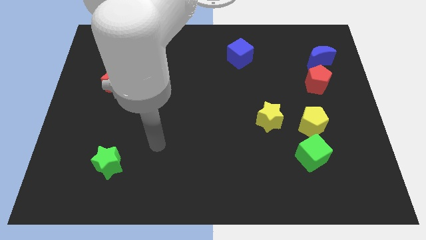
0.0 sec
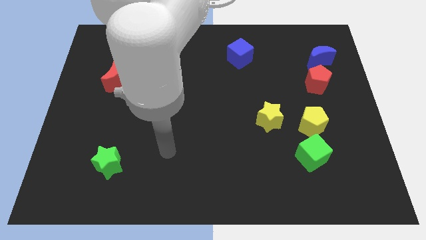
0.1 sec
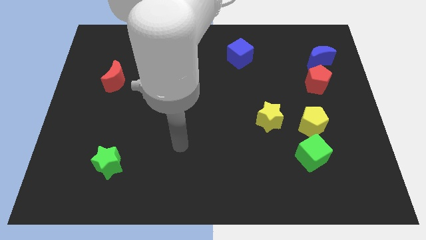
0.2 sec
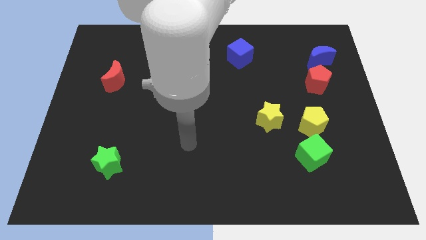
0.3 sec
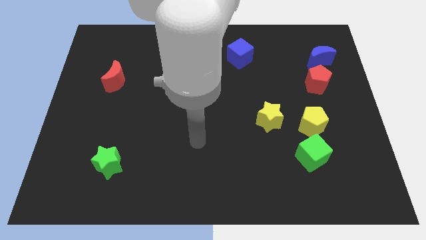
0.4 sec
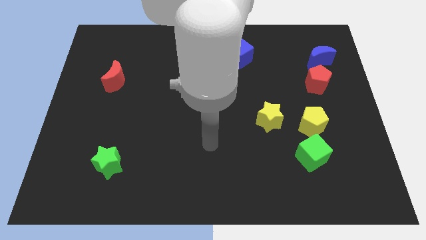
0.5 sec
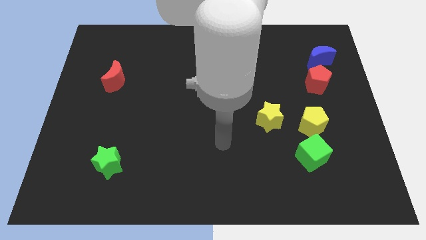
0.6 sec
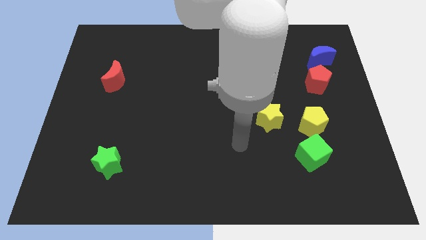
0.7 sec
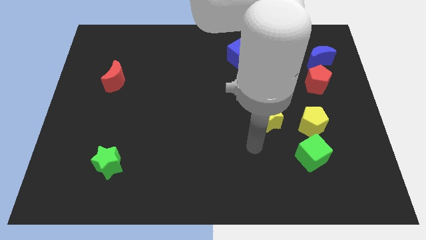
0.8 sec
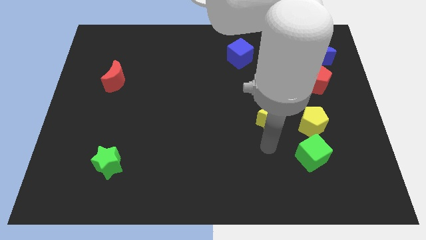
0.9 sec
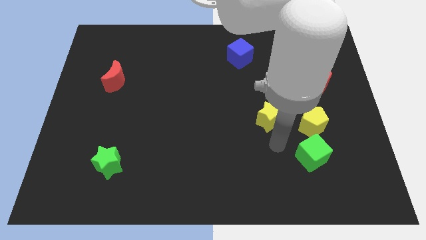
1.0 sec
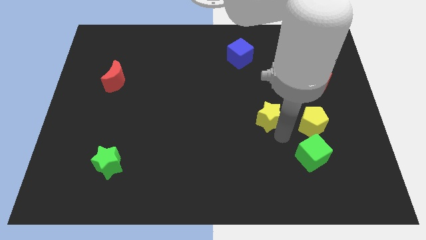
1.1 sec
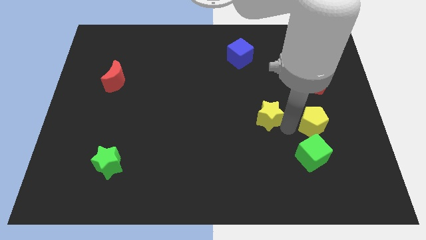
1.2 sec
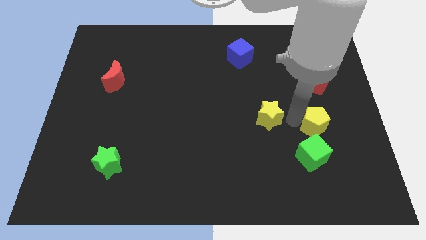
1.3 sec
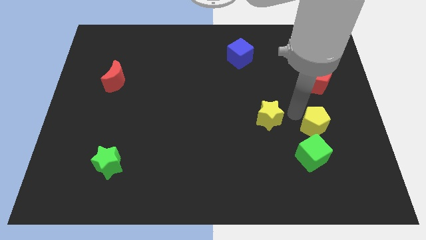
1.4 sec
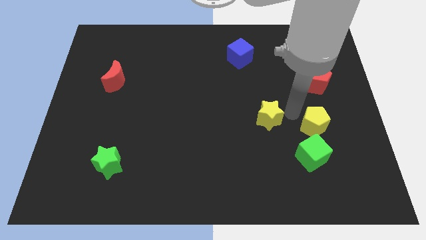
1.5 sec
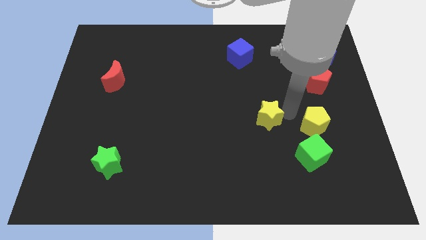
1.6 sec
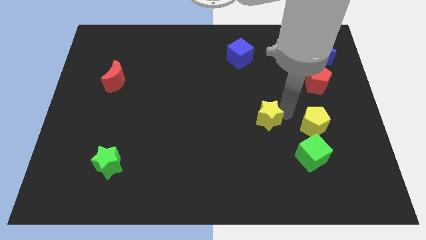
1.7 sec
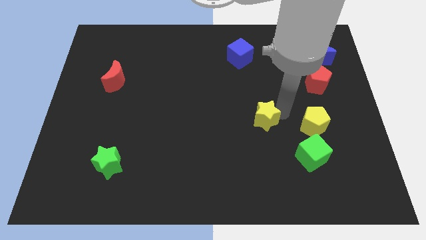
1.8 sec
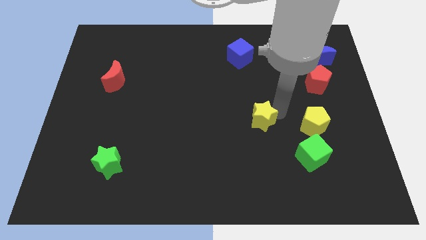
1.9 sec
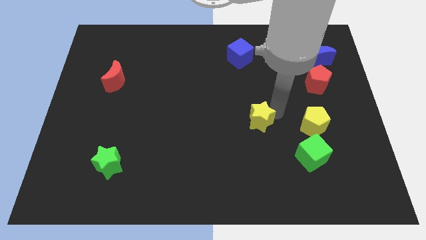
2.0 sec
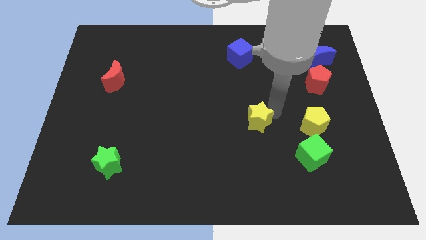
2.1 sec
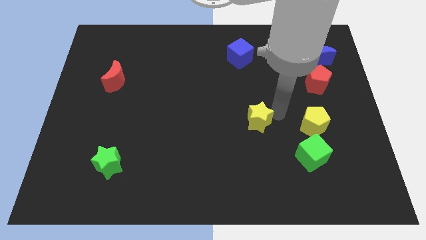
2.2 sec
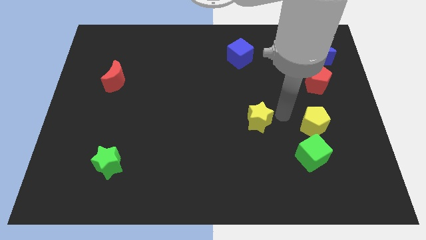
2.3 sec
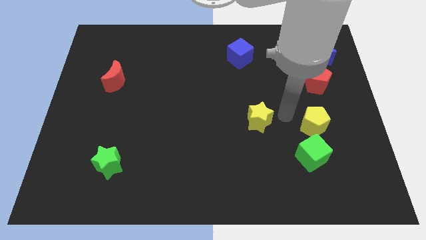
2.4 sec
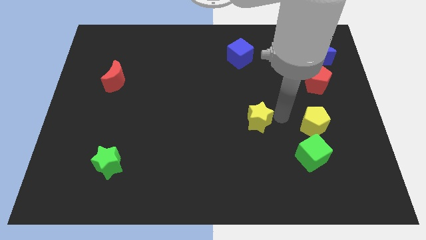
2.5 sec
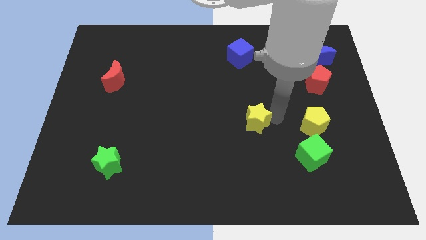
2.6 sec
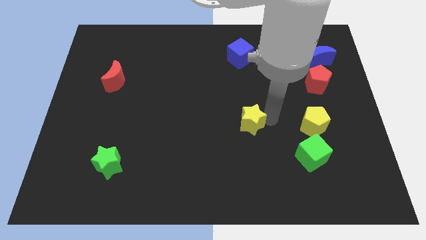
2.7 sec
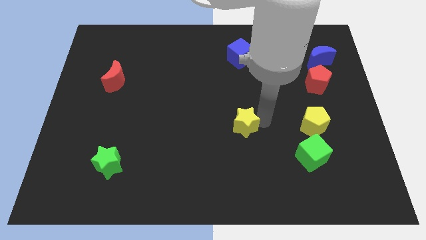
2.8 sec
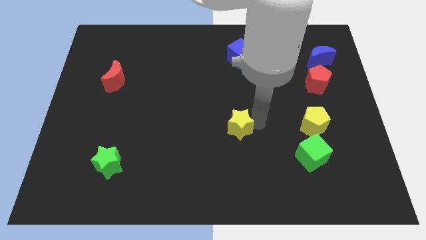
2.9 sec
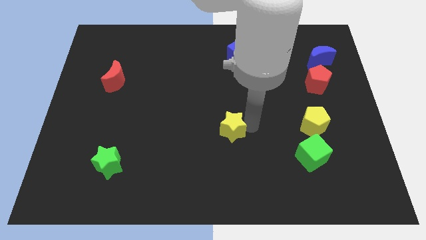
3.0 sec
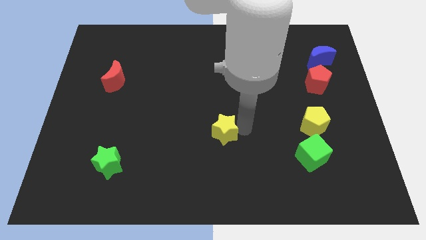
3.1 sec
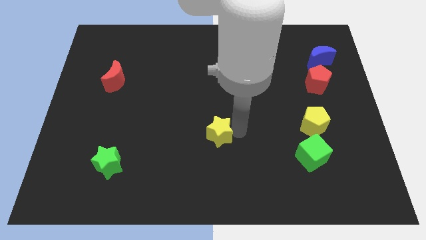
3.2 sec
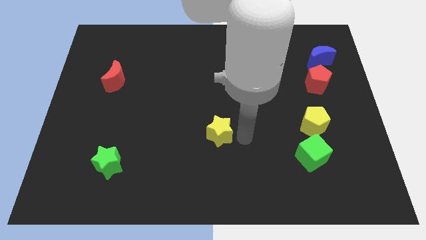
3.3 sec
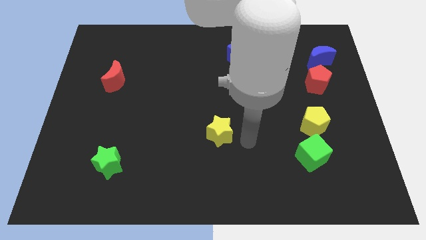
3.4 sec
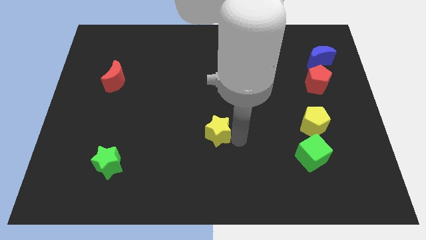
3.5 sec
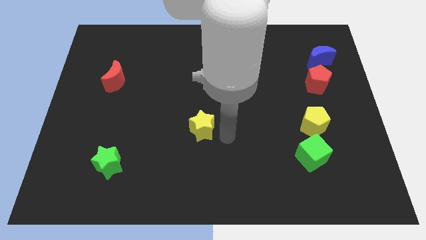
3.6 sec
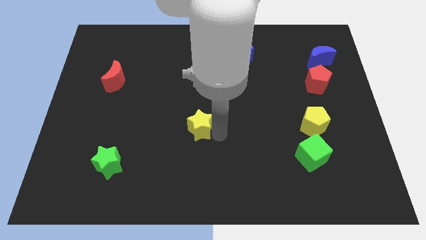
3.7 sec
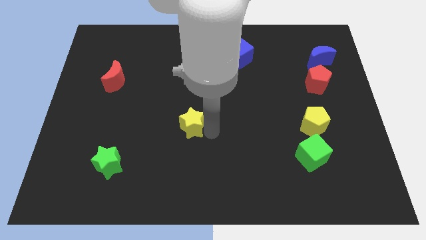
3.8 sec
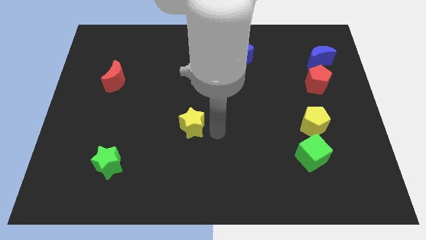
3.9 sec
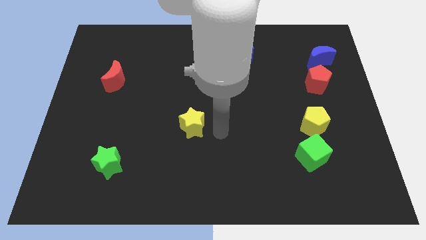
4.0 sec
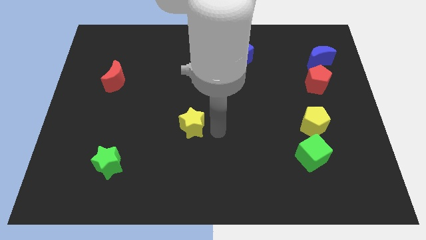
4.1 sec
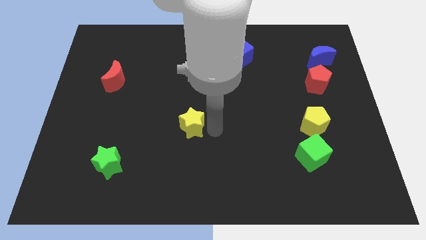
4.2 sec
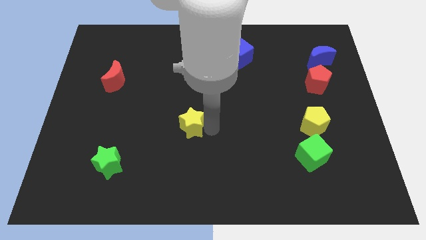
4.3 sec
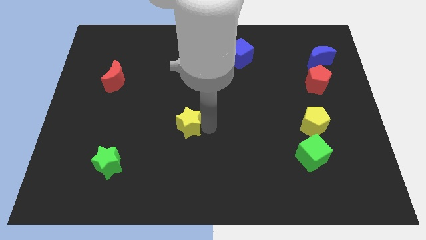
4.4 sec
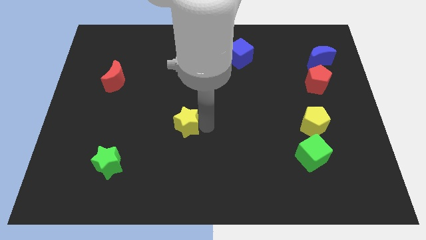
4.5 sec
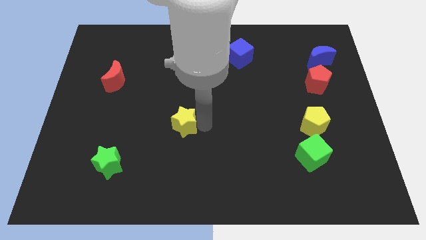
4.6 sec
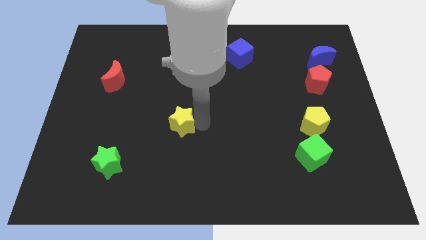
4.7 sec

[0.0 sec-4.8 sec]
move the yellow star left

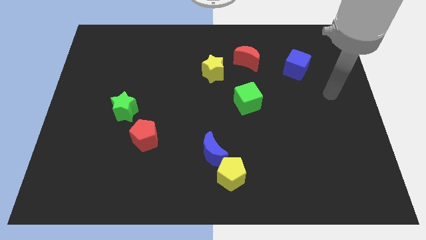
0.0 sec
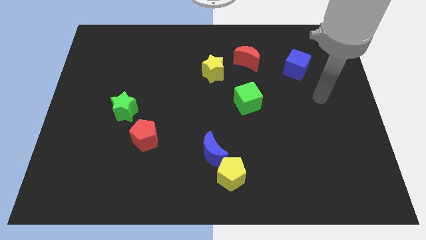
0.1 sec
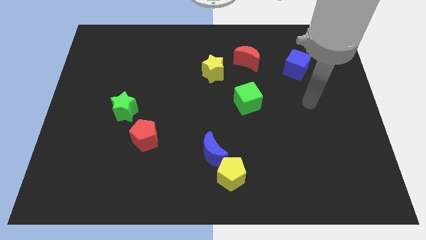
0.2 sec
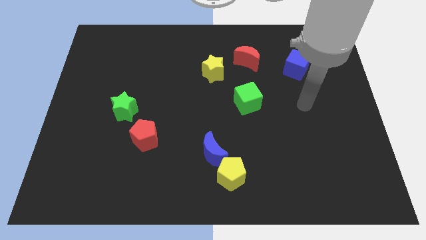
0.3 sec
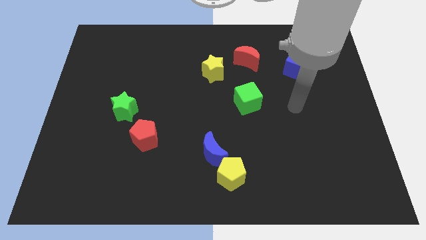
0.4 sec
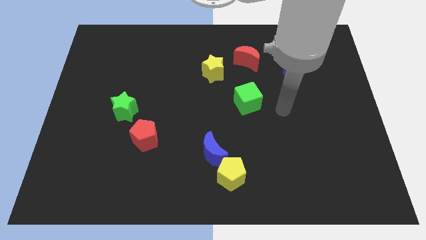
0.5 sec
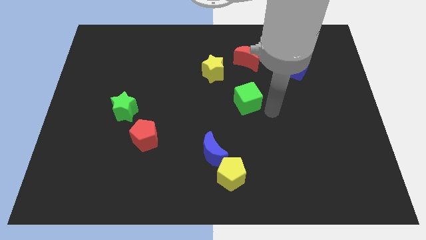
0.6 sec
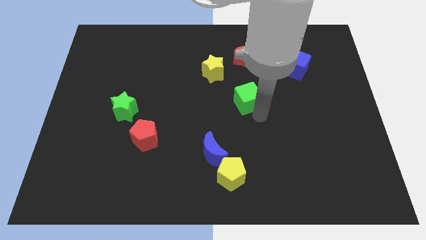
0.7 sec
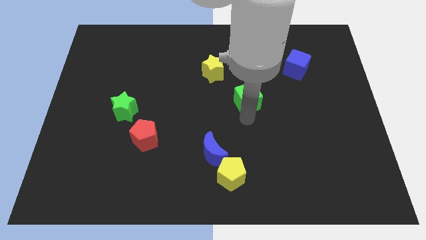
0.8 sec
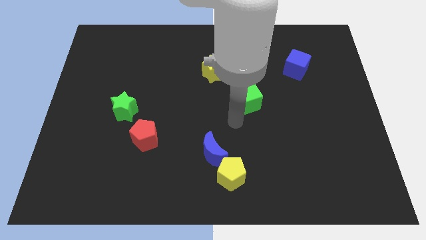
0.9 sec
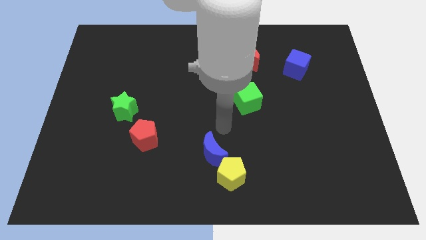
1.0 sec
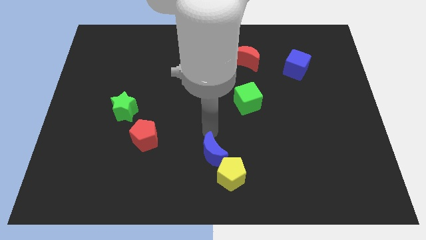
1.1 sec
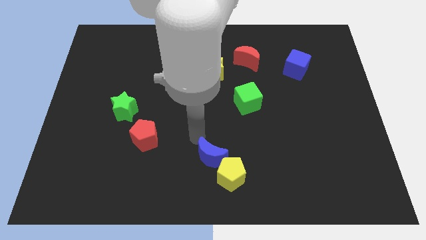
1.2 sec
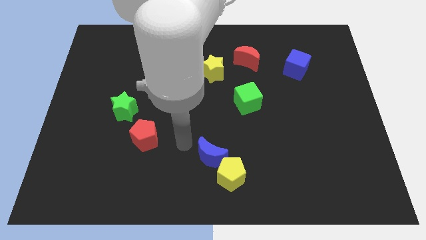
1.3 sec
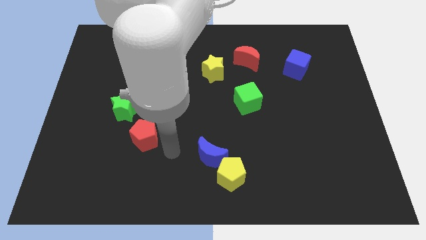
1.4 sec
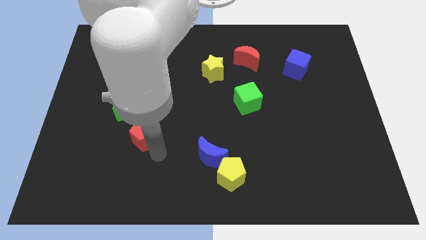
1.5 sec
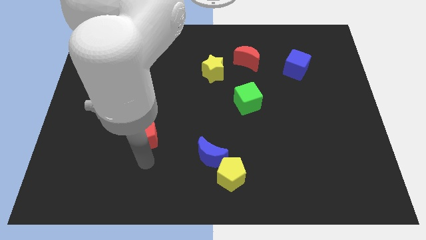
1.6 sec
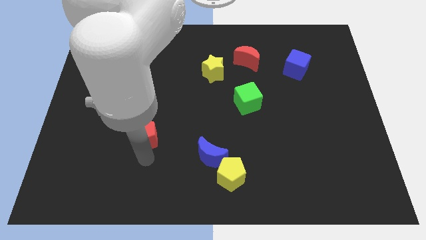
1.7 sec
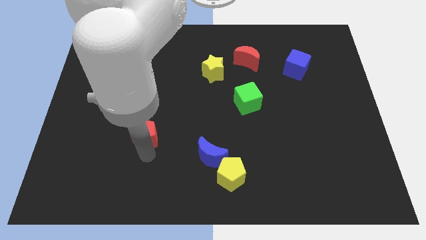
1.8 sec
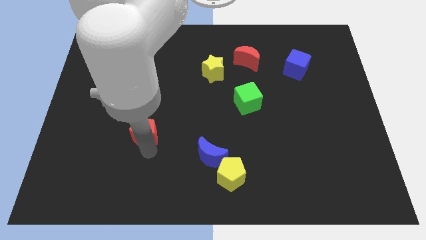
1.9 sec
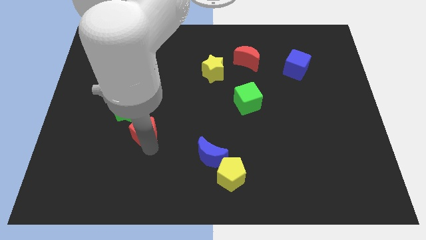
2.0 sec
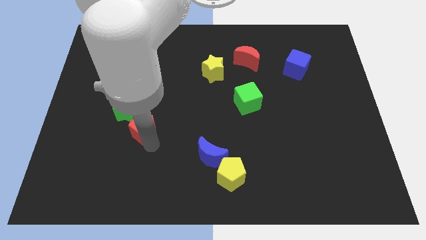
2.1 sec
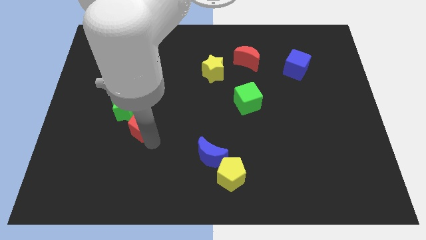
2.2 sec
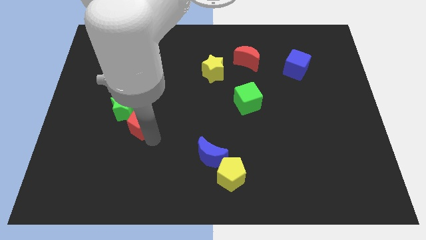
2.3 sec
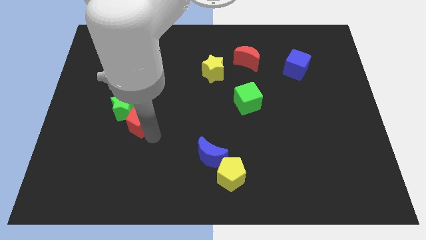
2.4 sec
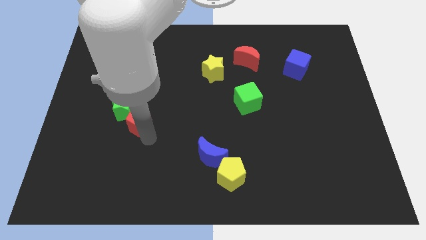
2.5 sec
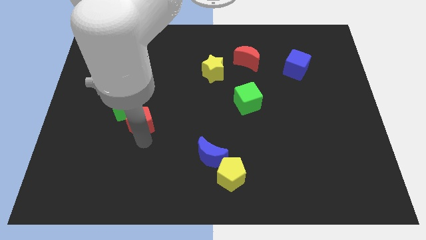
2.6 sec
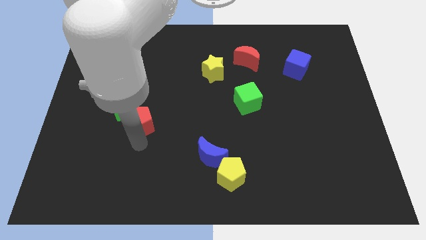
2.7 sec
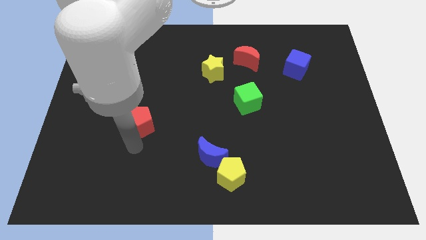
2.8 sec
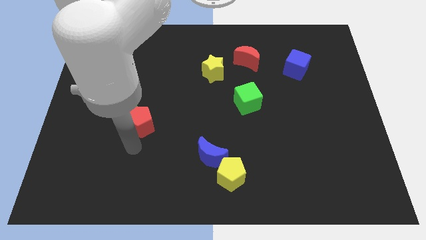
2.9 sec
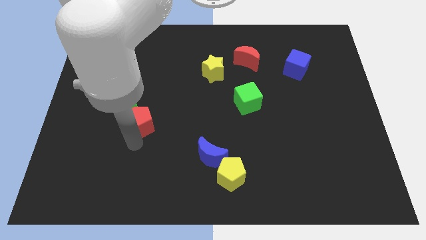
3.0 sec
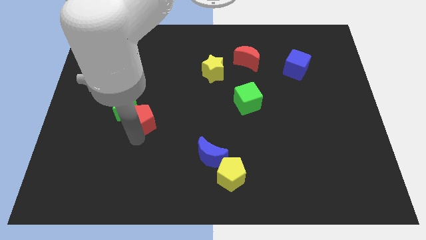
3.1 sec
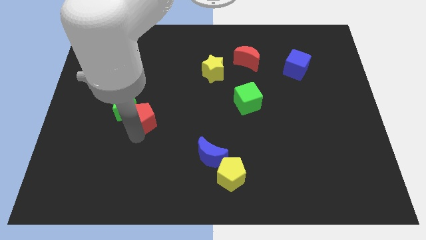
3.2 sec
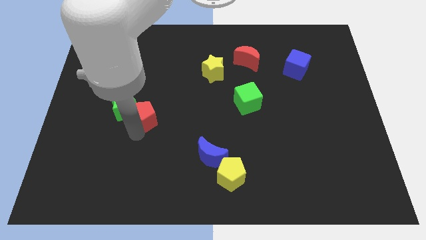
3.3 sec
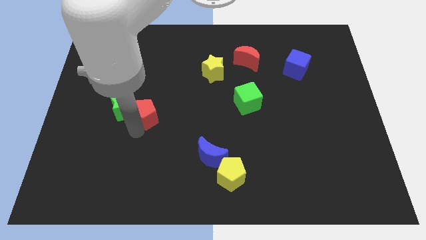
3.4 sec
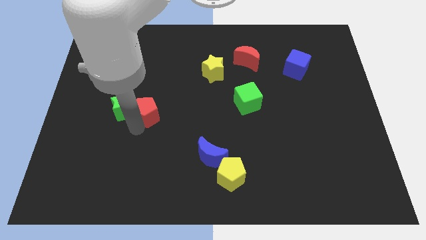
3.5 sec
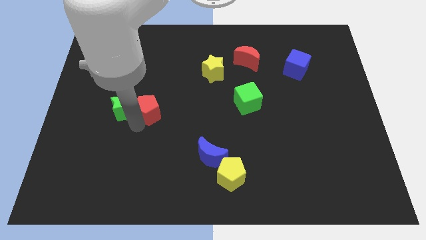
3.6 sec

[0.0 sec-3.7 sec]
slightly push the red pentagon upwards
